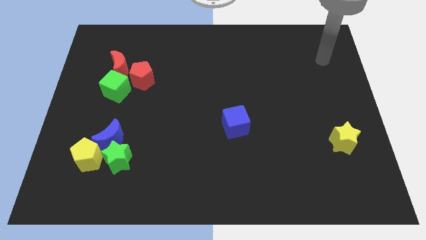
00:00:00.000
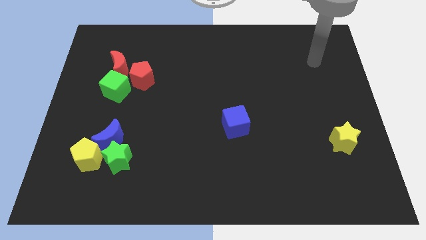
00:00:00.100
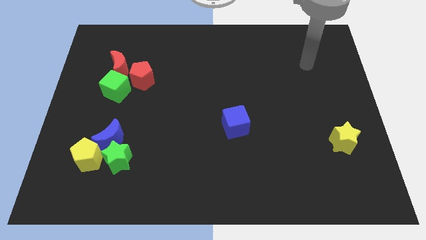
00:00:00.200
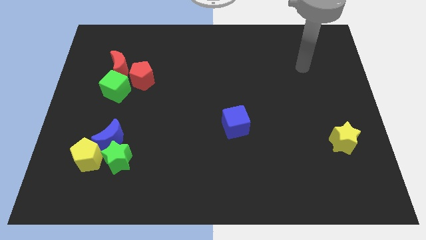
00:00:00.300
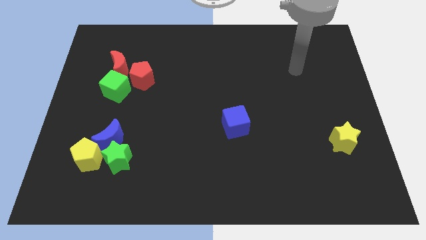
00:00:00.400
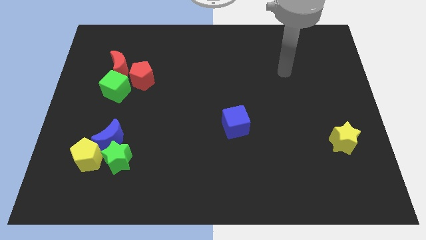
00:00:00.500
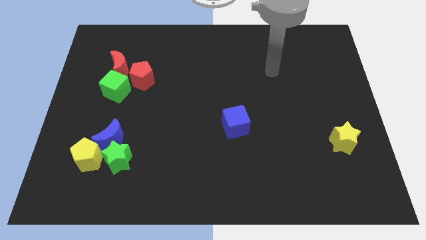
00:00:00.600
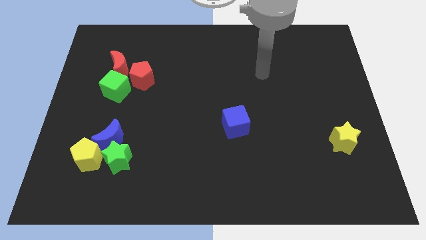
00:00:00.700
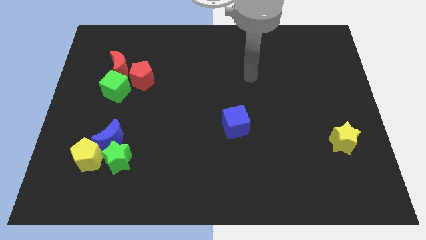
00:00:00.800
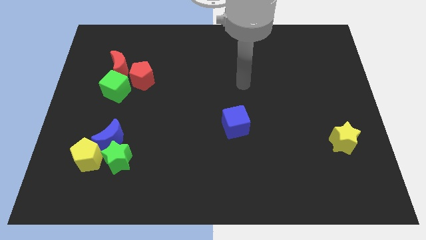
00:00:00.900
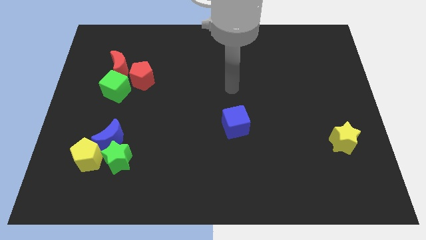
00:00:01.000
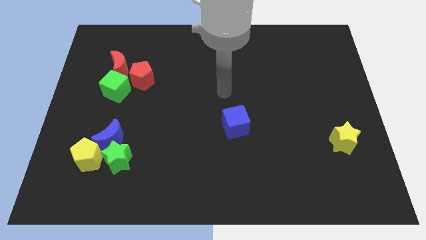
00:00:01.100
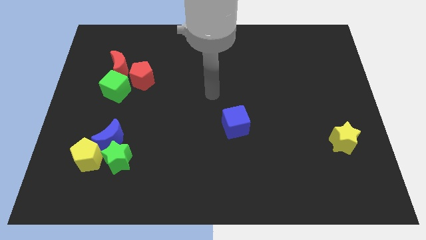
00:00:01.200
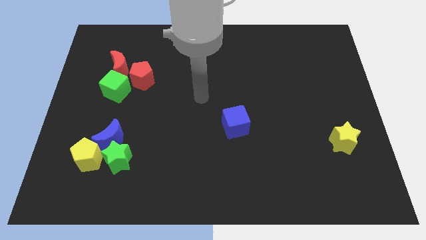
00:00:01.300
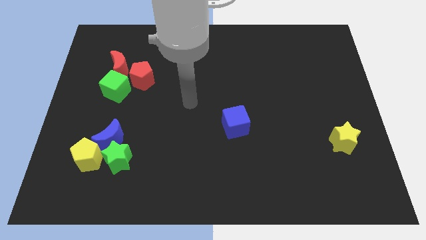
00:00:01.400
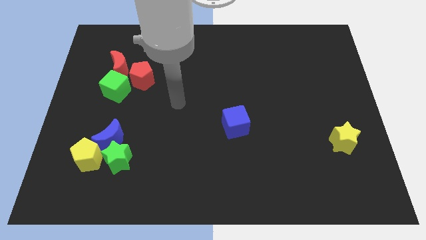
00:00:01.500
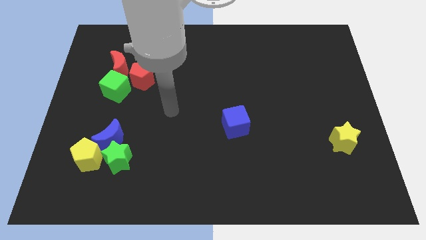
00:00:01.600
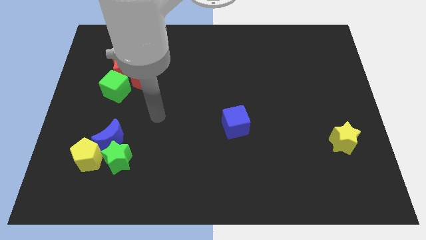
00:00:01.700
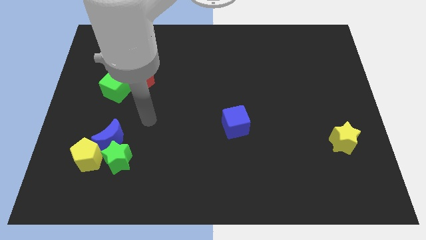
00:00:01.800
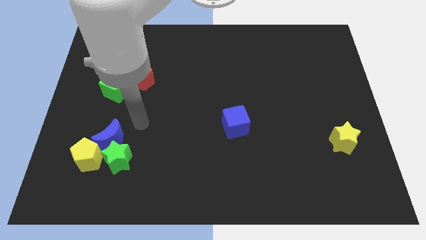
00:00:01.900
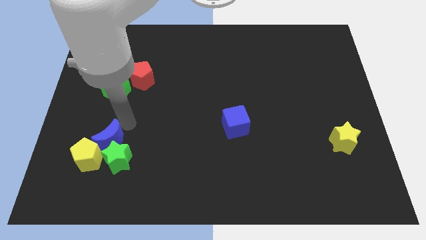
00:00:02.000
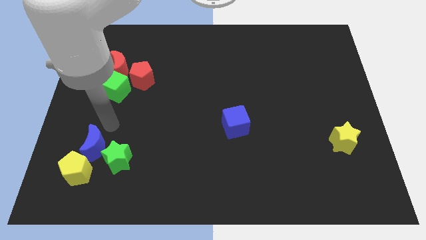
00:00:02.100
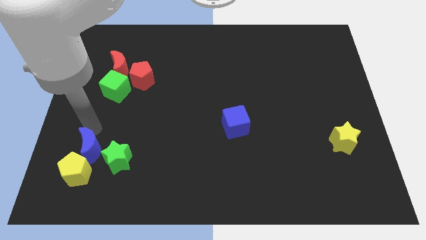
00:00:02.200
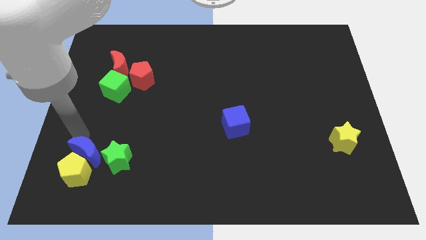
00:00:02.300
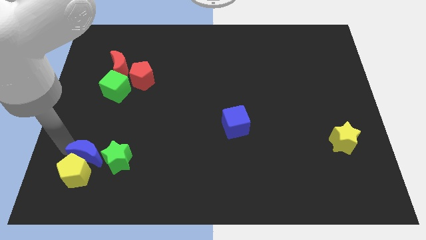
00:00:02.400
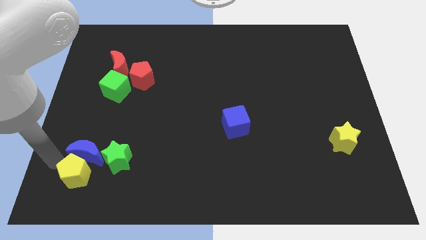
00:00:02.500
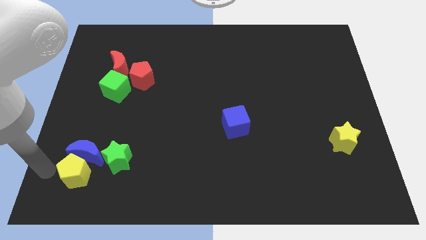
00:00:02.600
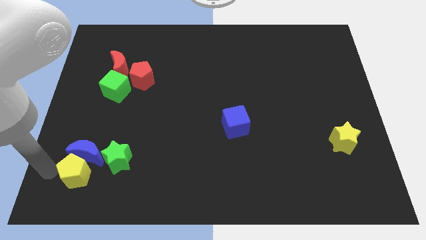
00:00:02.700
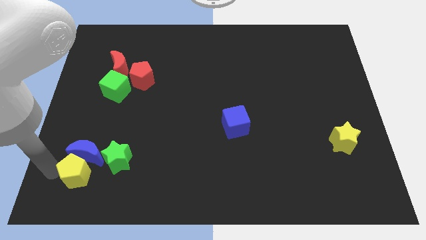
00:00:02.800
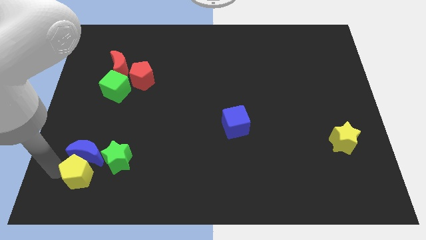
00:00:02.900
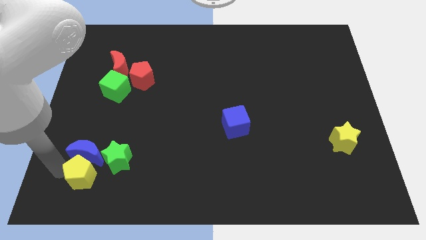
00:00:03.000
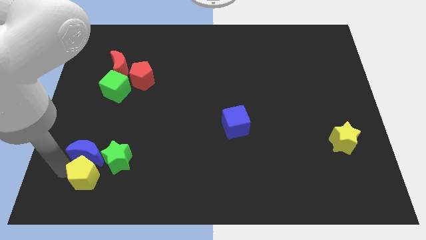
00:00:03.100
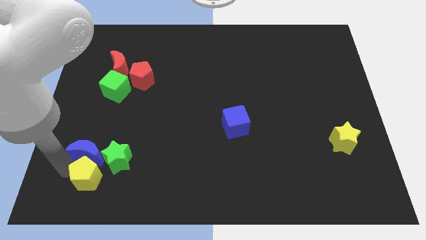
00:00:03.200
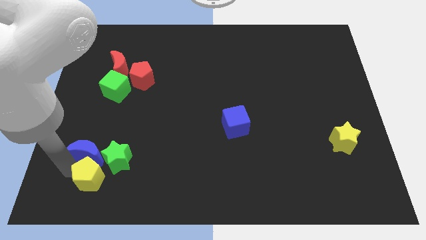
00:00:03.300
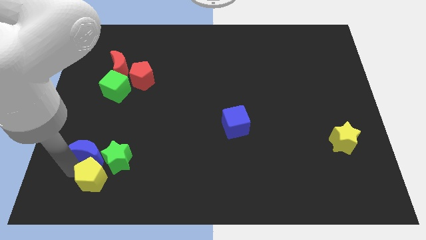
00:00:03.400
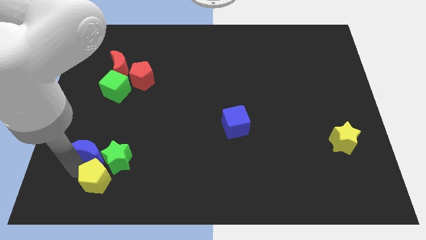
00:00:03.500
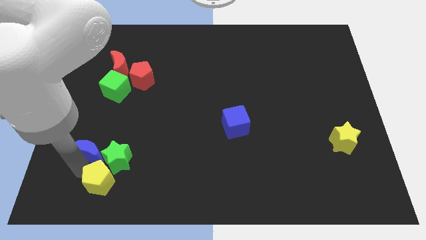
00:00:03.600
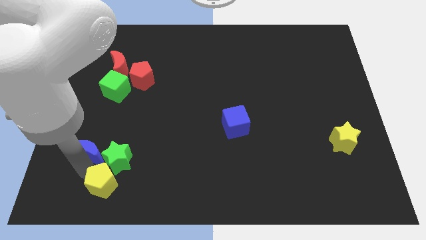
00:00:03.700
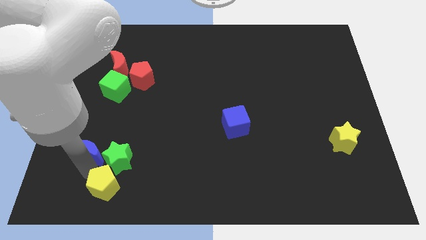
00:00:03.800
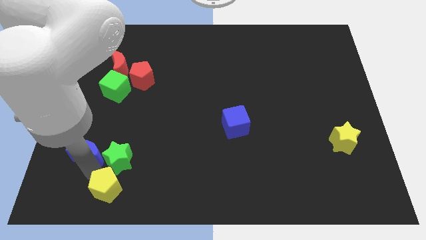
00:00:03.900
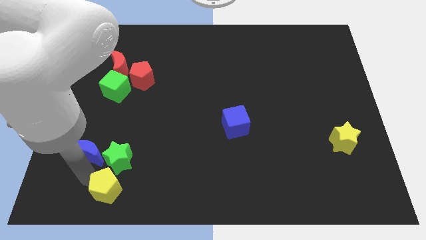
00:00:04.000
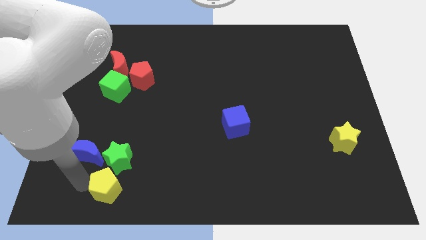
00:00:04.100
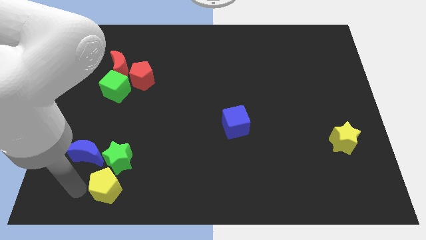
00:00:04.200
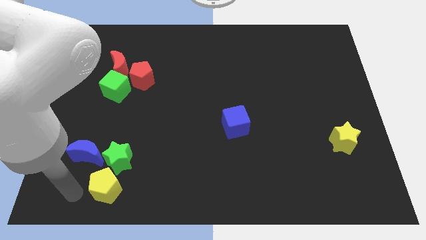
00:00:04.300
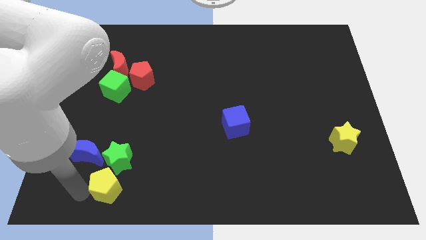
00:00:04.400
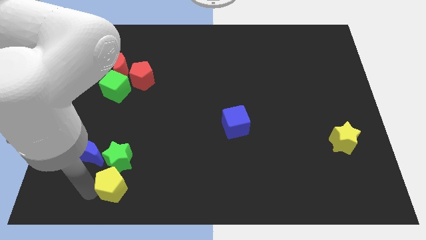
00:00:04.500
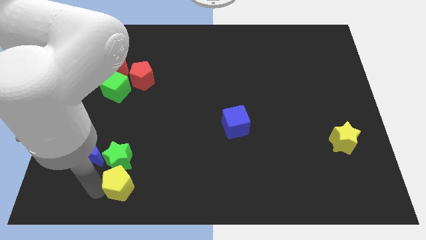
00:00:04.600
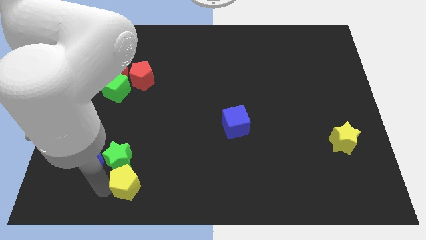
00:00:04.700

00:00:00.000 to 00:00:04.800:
move the yellow pentagon to the right somewhat

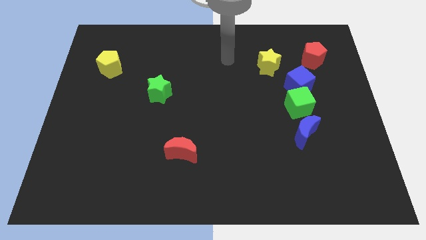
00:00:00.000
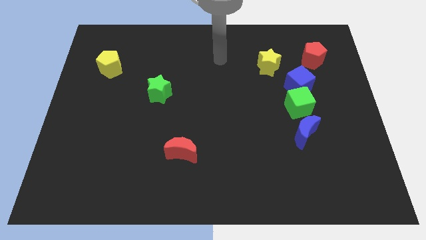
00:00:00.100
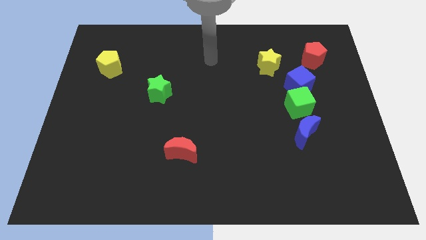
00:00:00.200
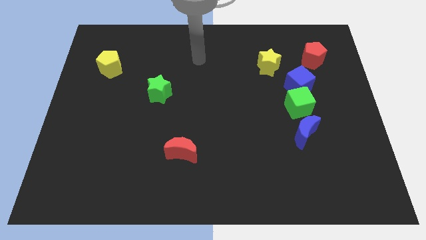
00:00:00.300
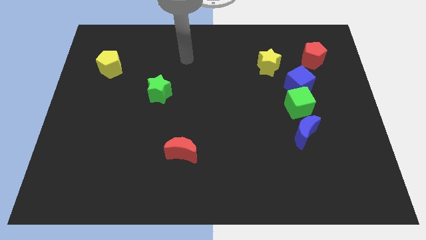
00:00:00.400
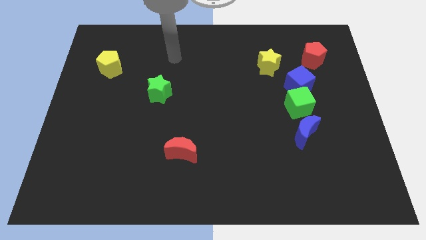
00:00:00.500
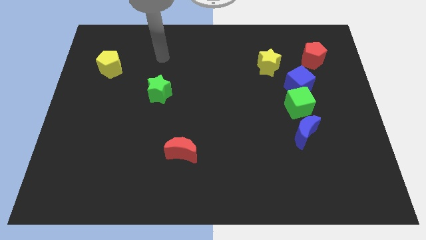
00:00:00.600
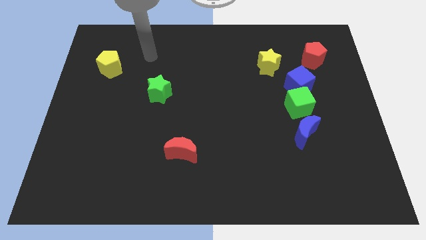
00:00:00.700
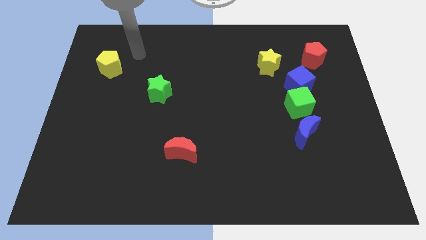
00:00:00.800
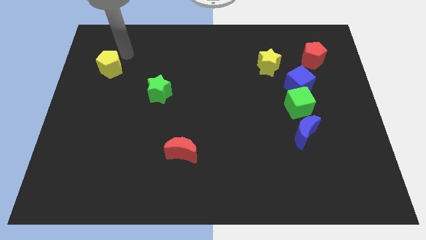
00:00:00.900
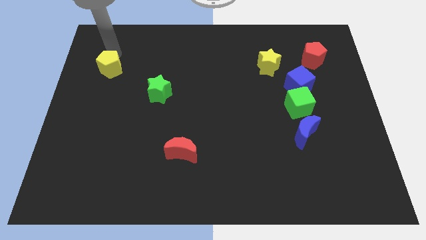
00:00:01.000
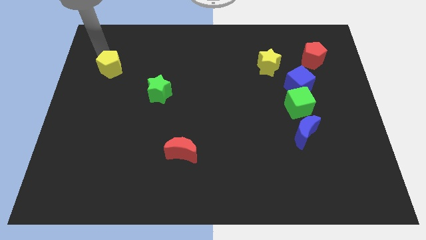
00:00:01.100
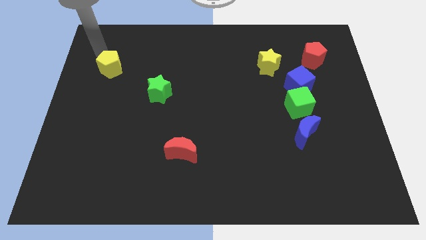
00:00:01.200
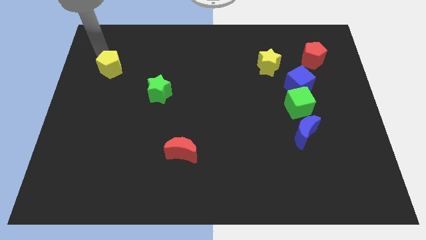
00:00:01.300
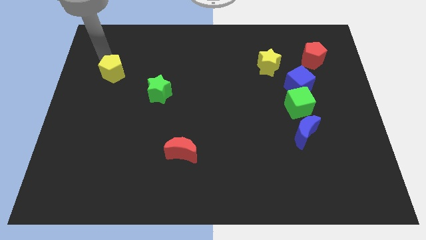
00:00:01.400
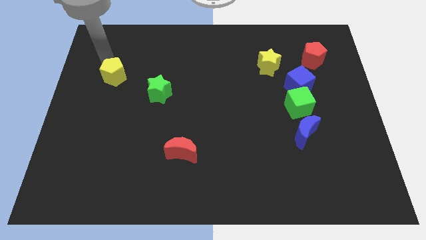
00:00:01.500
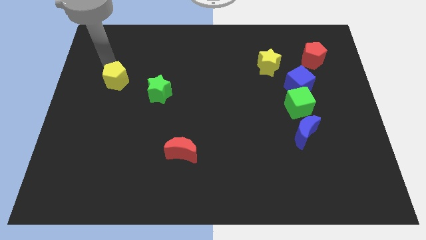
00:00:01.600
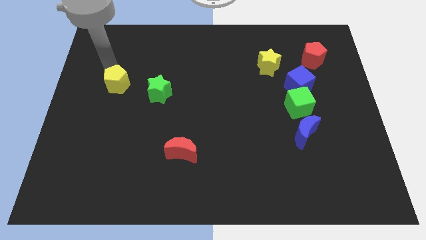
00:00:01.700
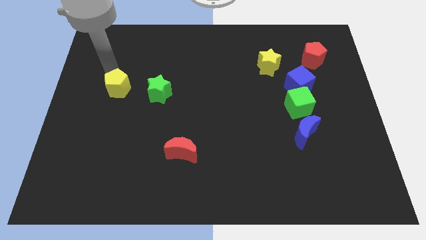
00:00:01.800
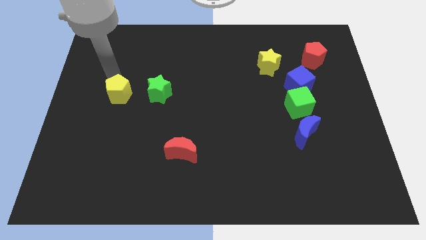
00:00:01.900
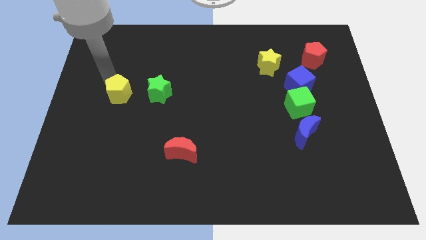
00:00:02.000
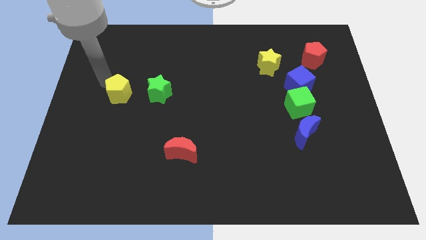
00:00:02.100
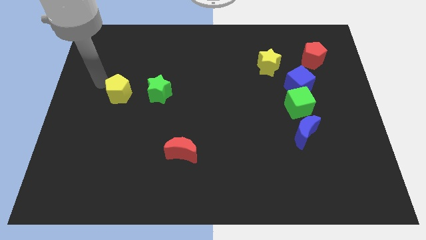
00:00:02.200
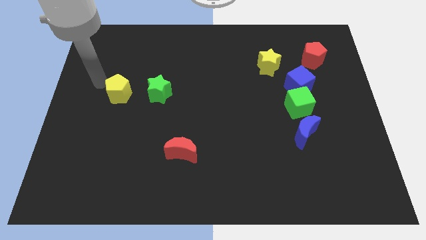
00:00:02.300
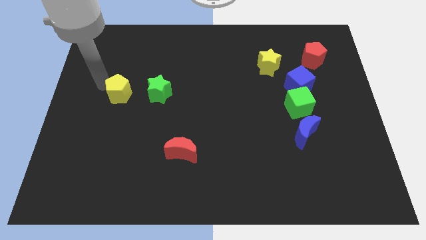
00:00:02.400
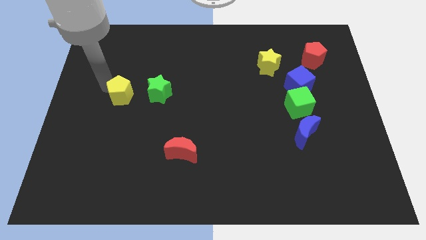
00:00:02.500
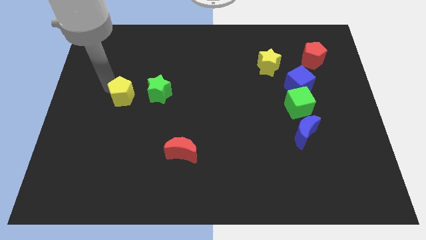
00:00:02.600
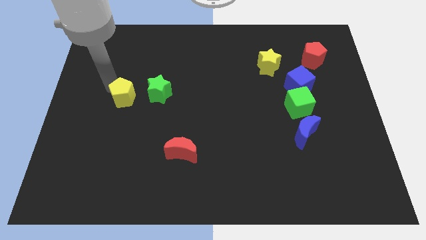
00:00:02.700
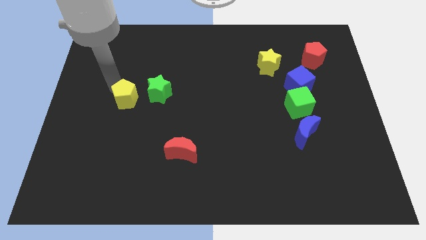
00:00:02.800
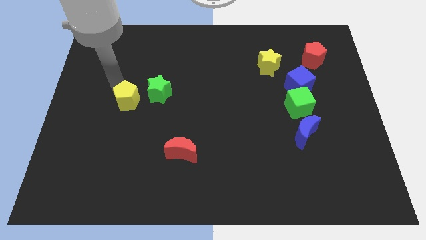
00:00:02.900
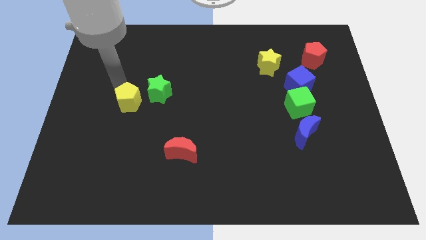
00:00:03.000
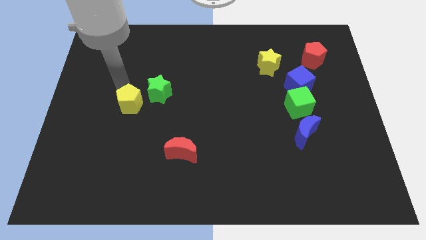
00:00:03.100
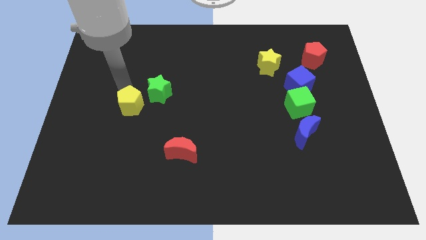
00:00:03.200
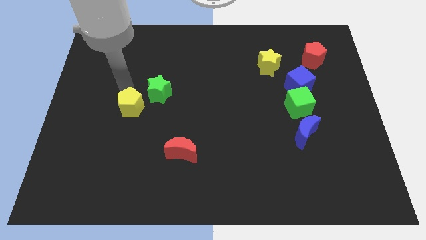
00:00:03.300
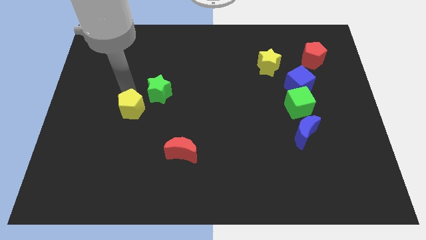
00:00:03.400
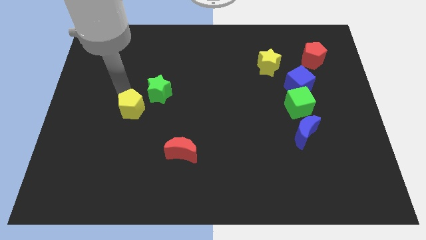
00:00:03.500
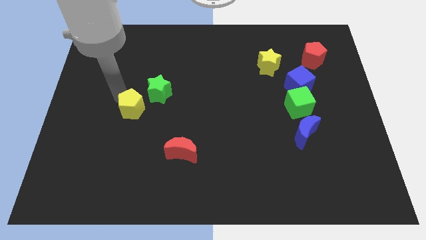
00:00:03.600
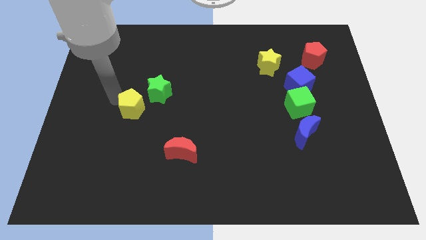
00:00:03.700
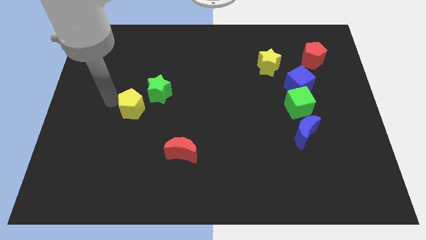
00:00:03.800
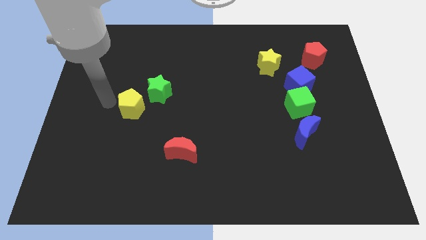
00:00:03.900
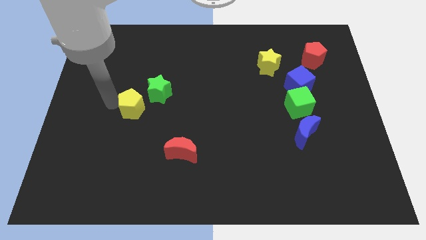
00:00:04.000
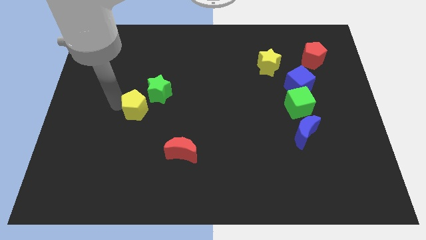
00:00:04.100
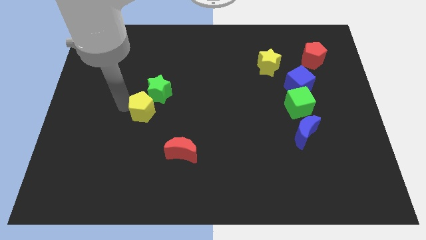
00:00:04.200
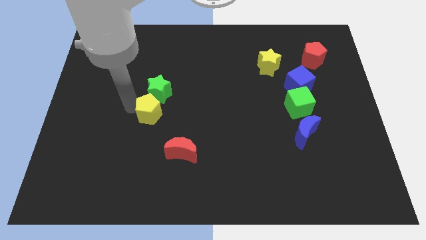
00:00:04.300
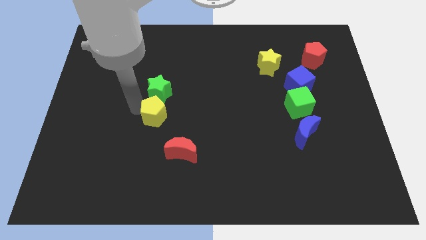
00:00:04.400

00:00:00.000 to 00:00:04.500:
push the yellow pentagon downwards and to the right
